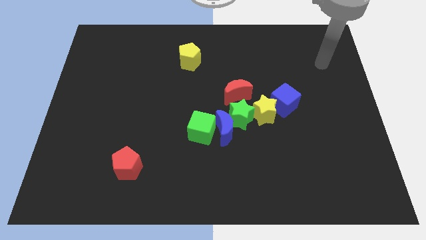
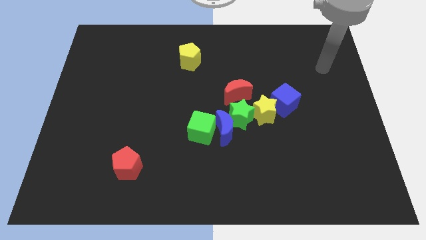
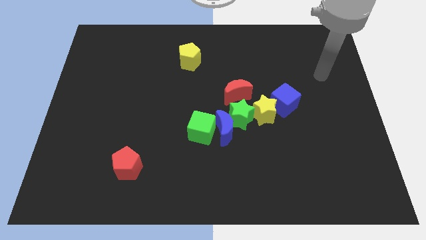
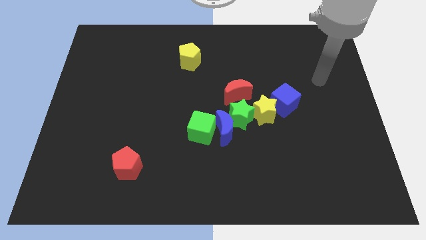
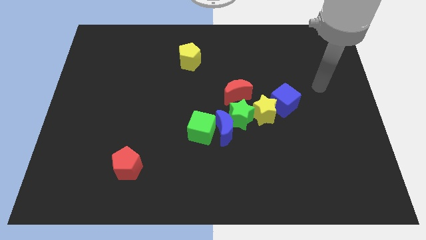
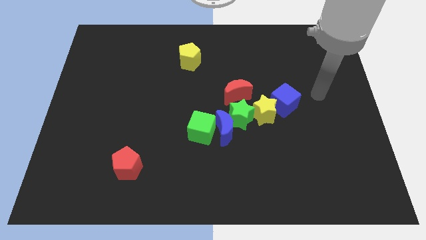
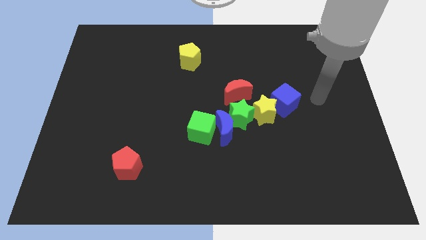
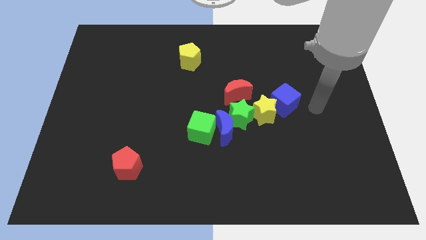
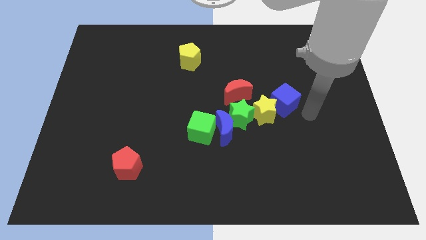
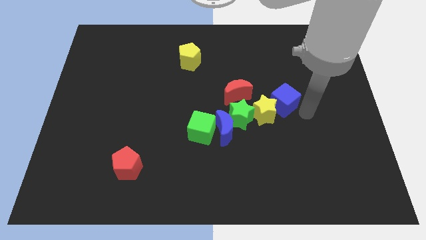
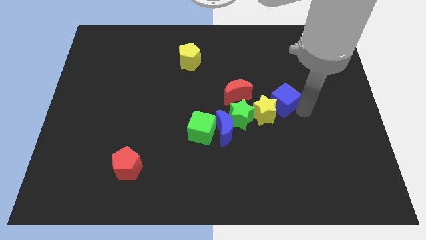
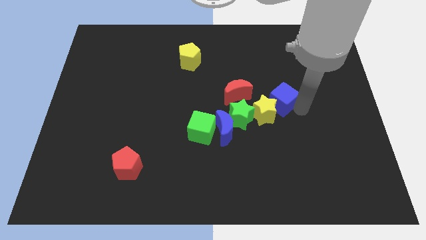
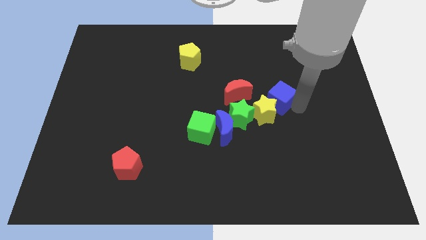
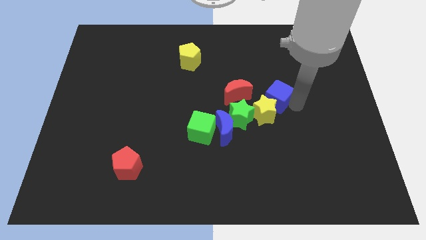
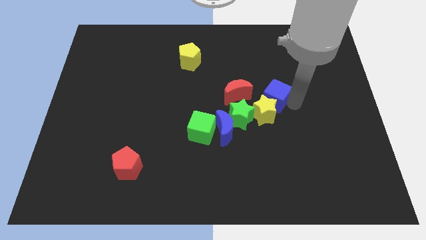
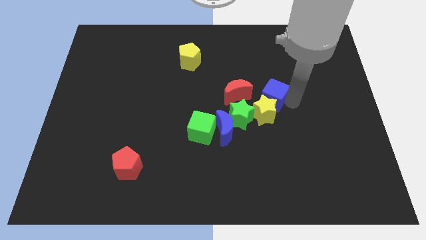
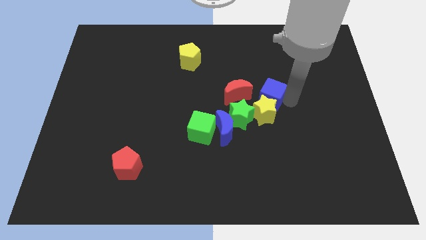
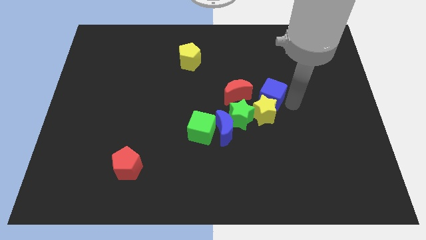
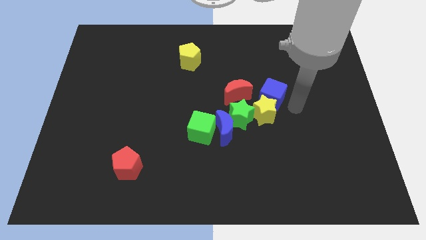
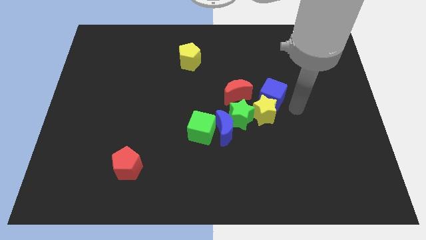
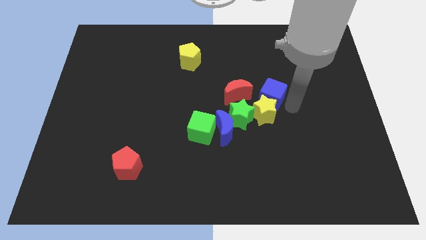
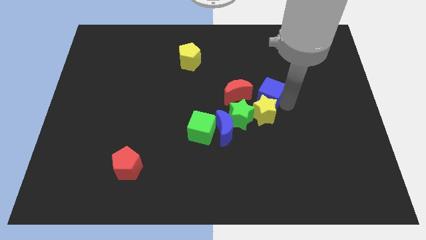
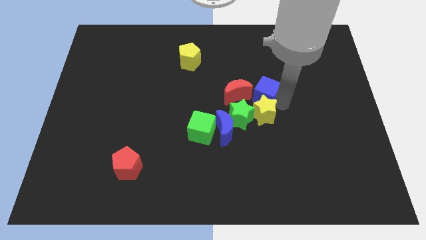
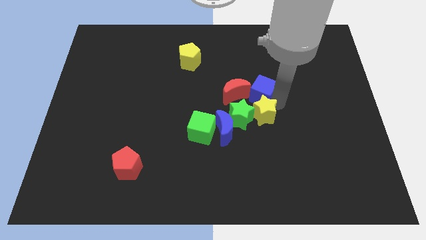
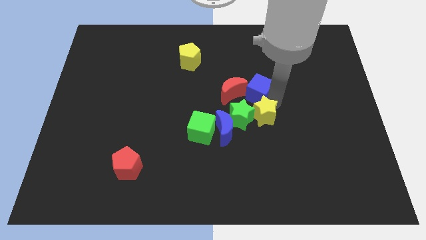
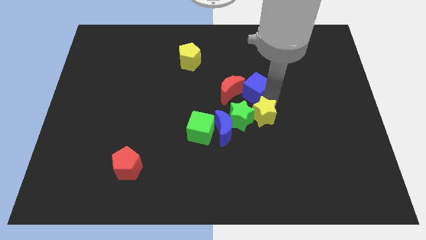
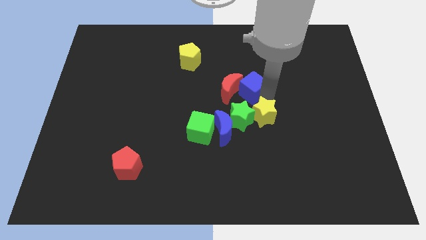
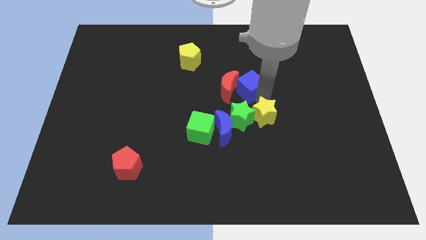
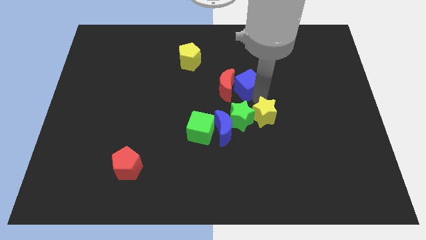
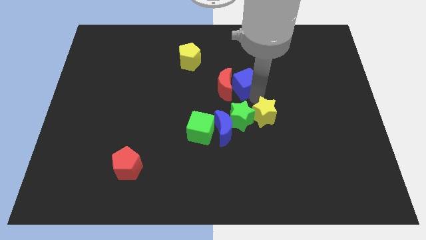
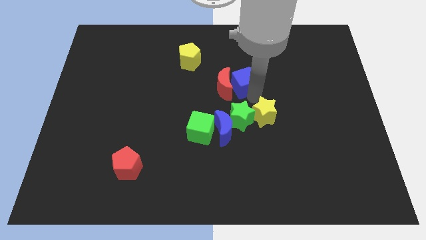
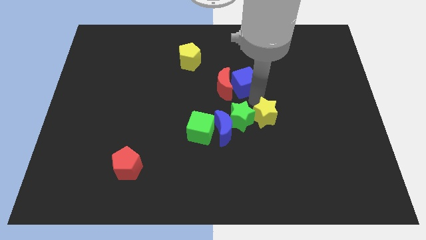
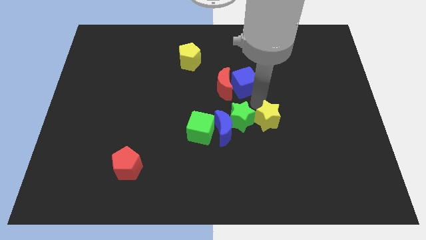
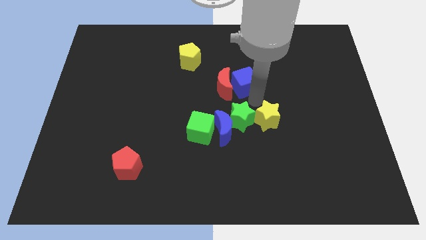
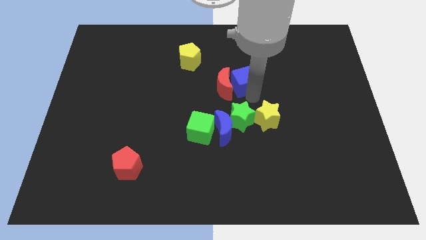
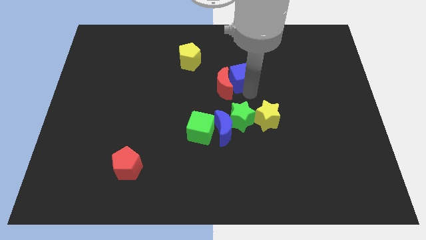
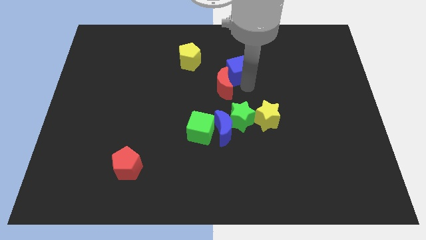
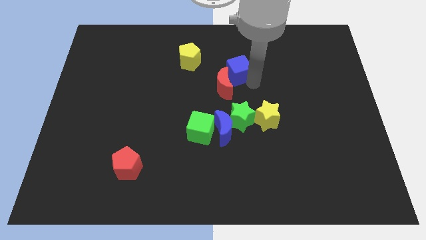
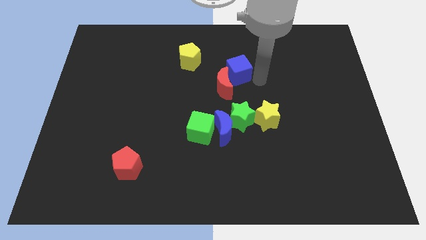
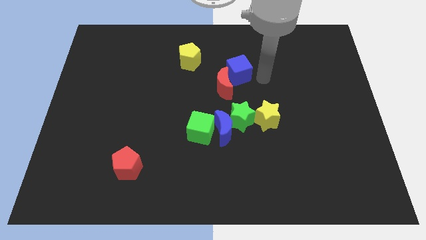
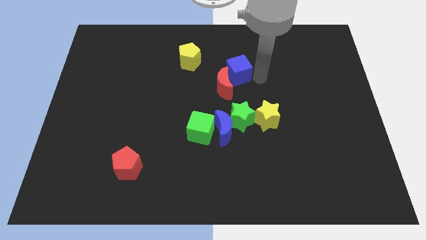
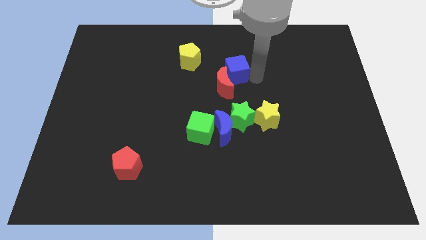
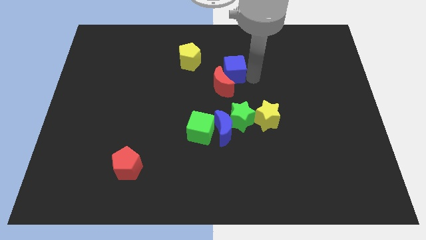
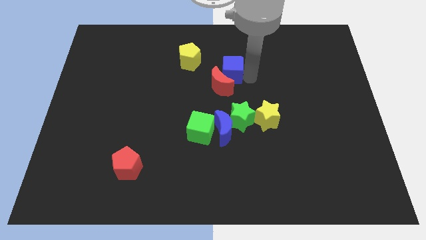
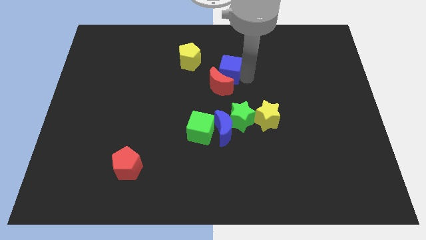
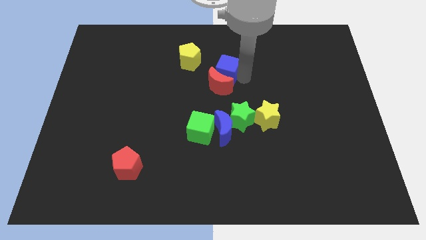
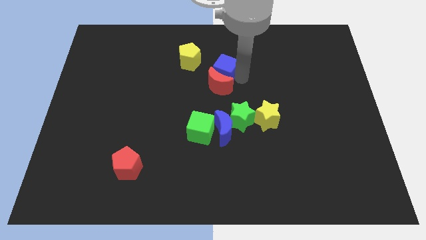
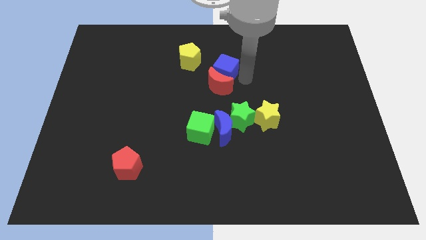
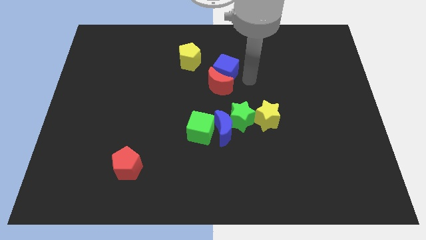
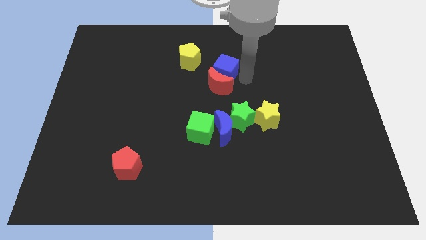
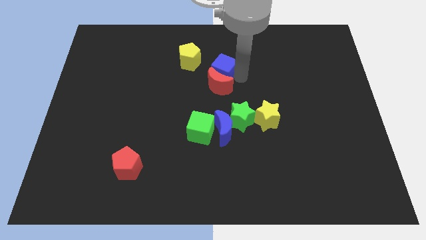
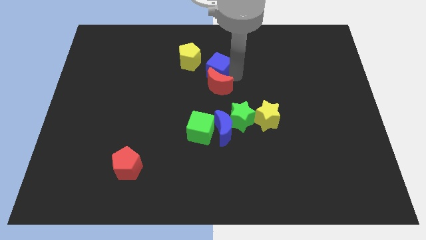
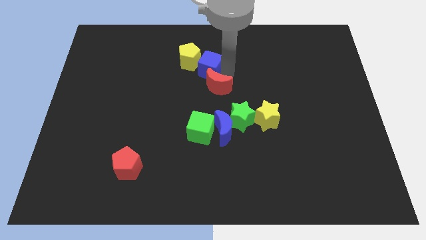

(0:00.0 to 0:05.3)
slide the blue cube close to the yellow pentagon

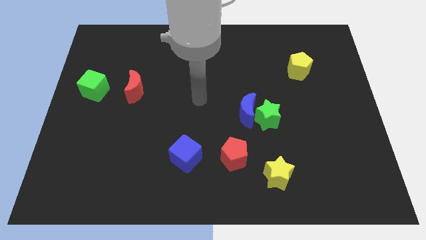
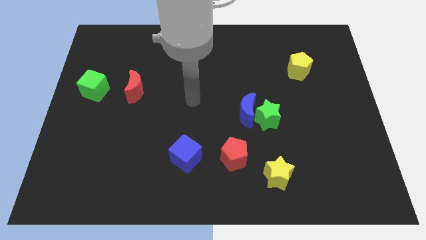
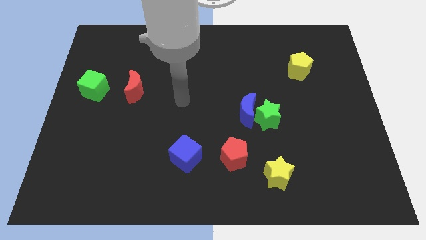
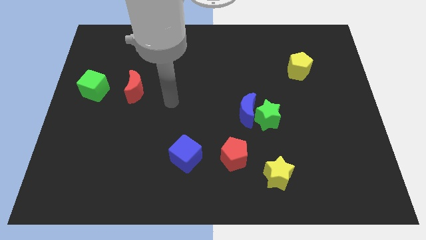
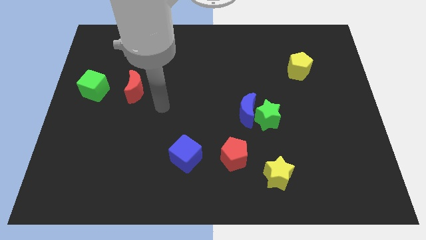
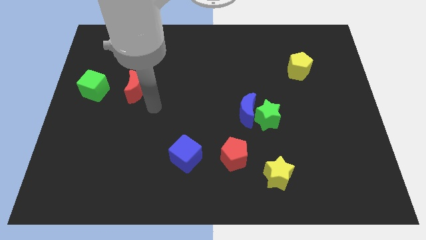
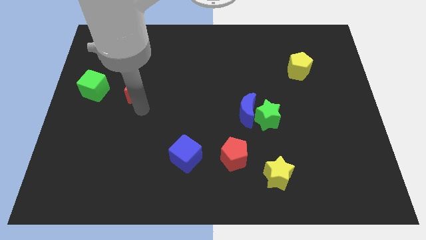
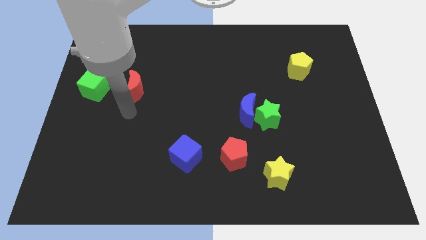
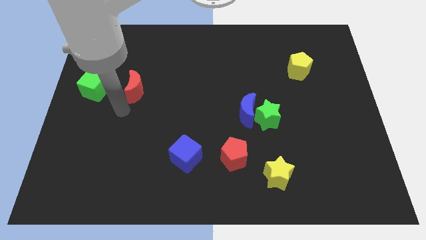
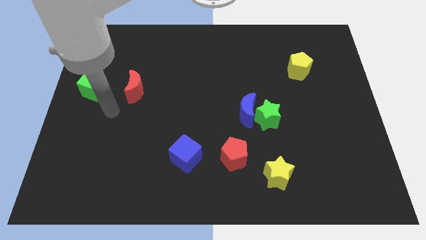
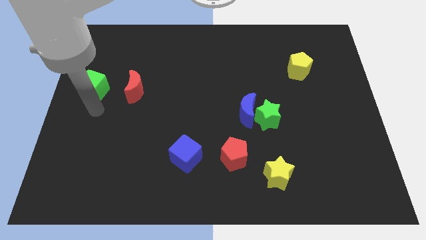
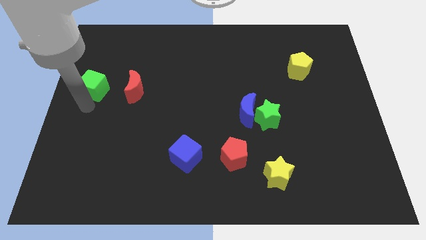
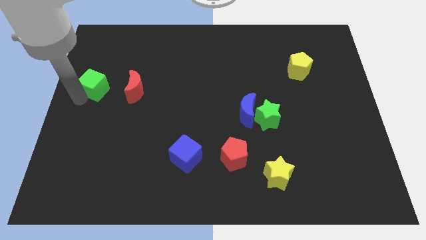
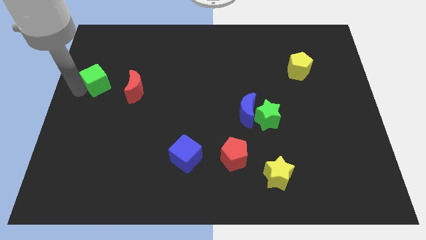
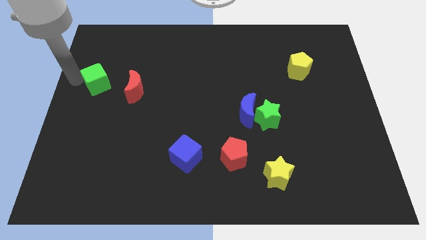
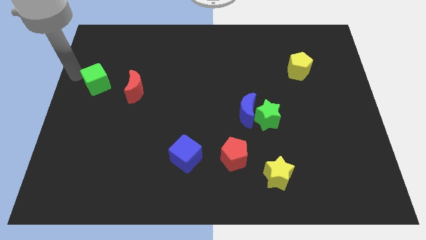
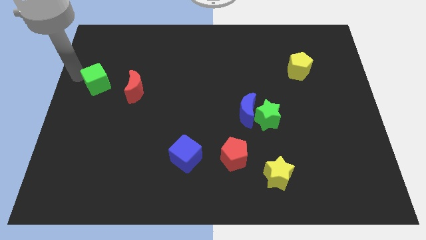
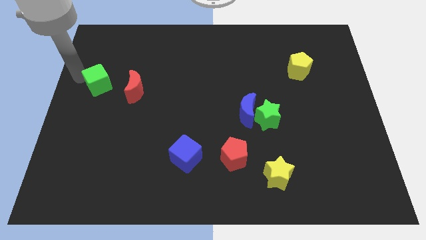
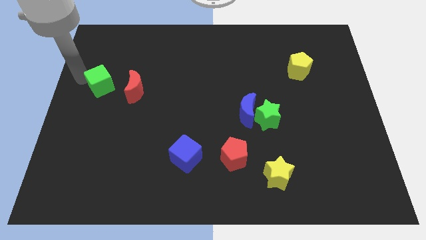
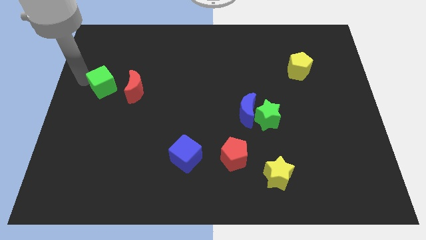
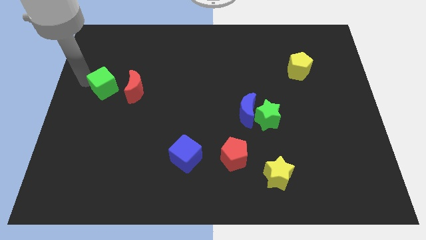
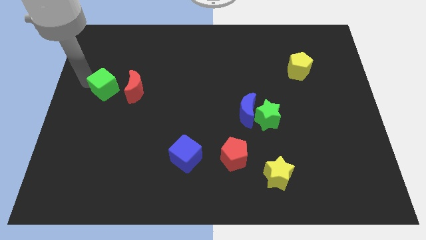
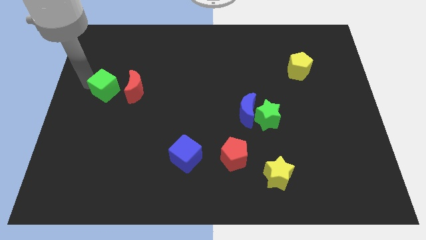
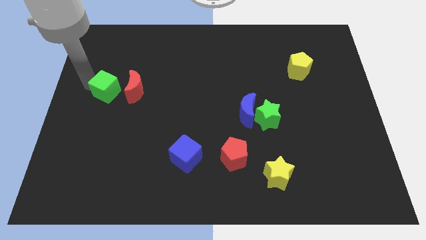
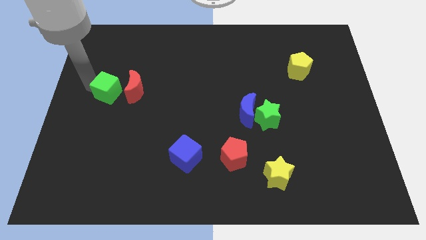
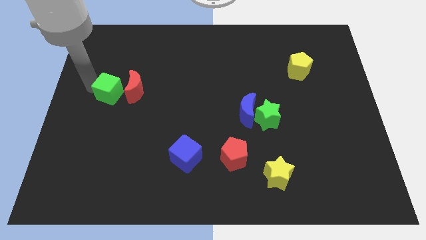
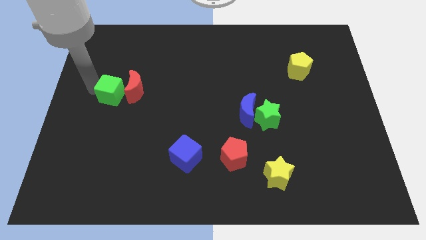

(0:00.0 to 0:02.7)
move the green cube next to the red moon
